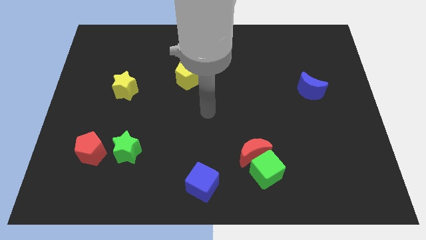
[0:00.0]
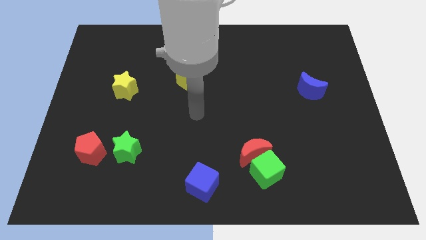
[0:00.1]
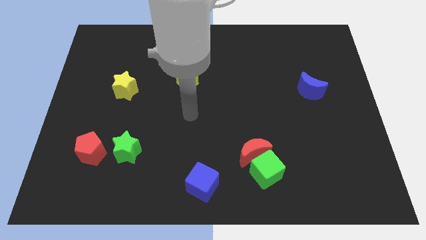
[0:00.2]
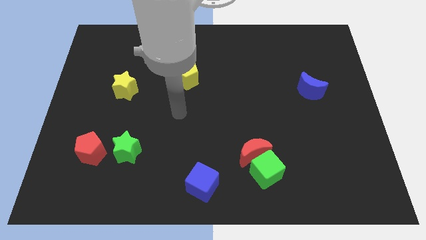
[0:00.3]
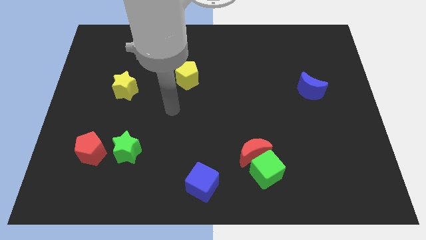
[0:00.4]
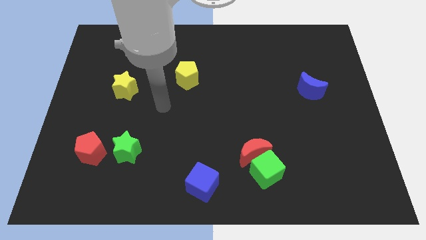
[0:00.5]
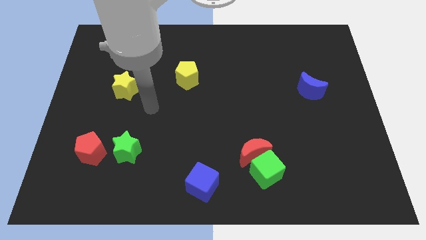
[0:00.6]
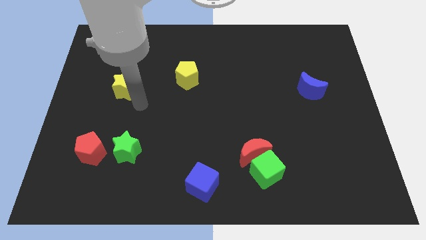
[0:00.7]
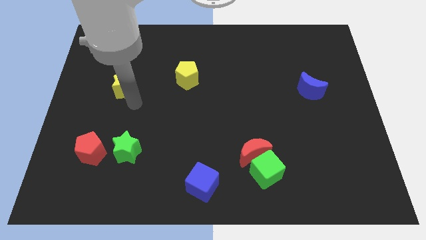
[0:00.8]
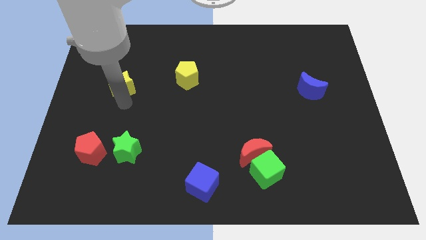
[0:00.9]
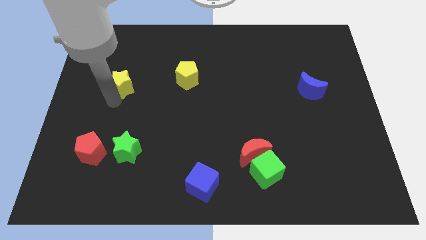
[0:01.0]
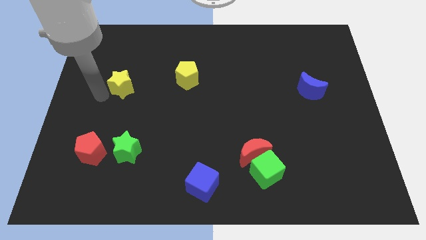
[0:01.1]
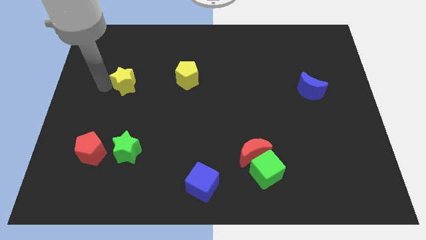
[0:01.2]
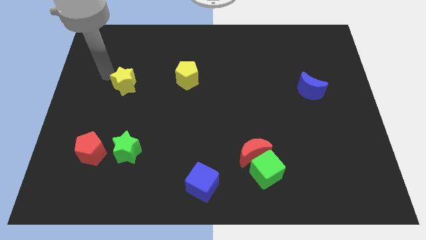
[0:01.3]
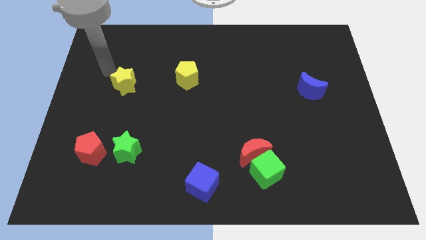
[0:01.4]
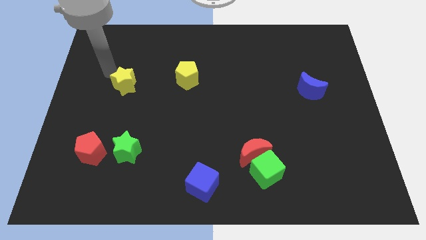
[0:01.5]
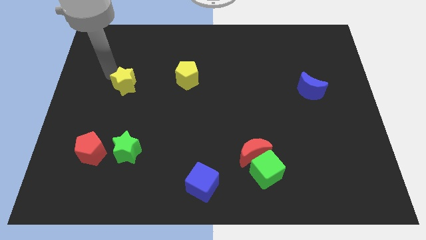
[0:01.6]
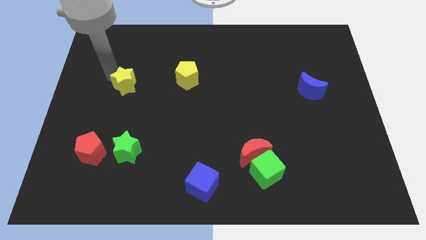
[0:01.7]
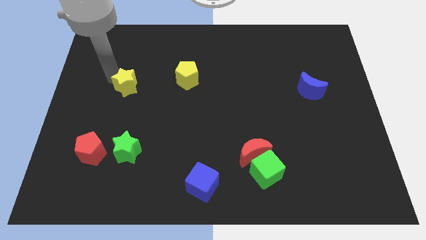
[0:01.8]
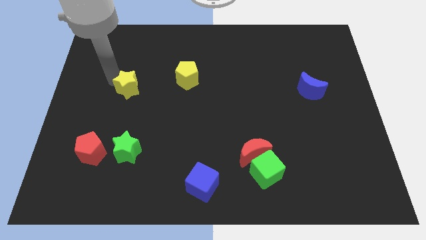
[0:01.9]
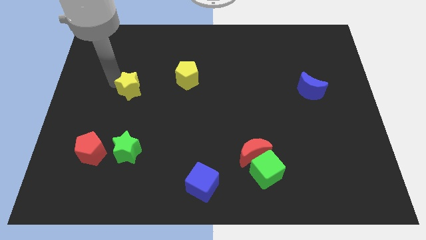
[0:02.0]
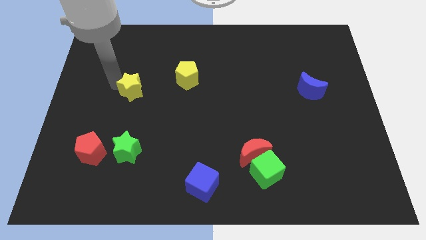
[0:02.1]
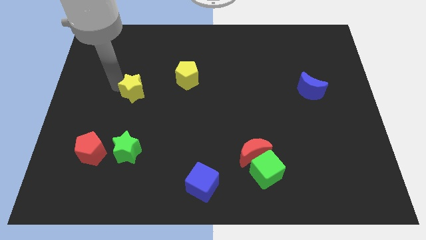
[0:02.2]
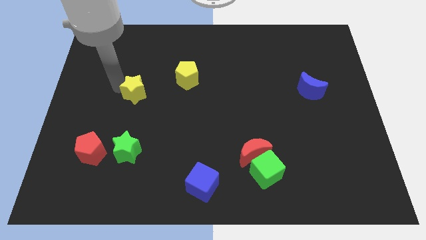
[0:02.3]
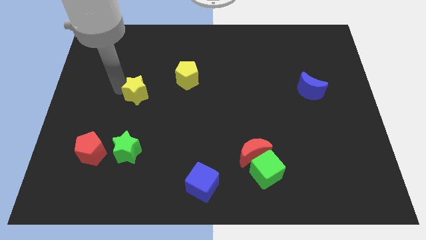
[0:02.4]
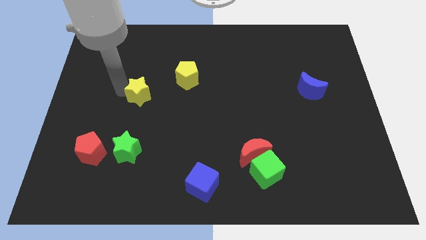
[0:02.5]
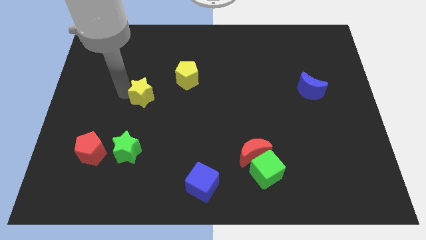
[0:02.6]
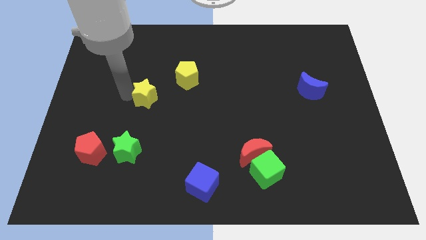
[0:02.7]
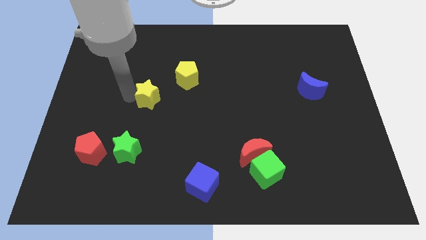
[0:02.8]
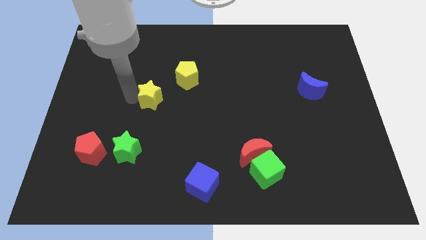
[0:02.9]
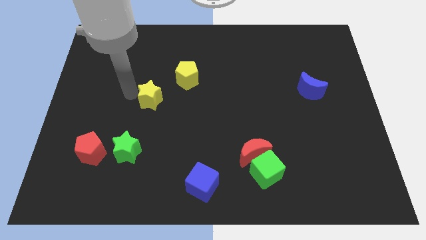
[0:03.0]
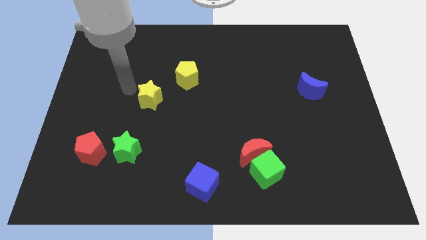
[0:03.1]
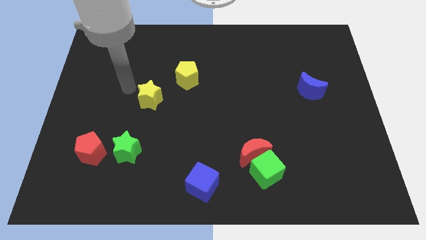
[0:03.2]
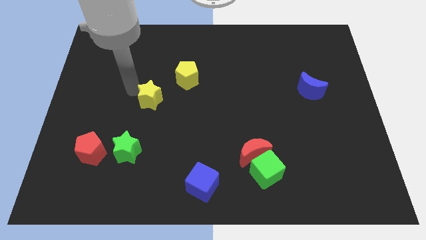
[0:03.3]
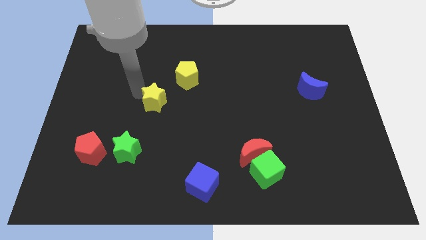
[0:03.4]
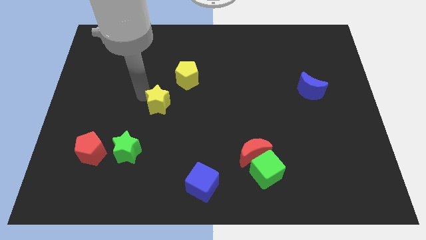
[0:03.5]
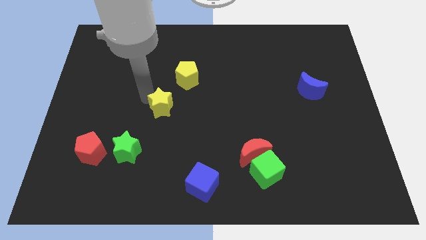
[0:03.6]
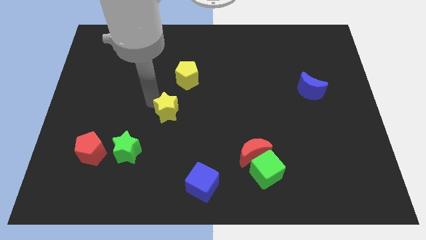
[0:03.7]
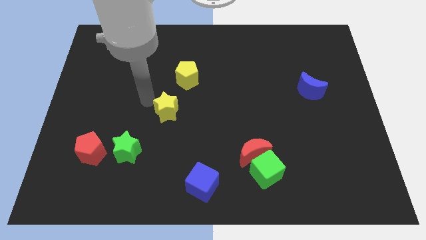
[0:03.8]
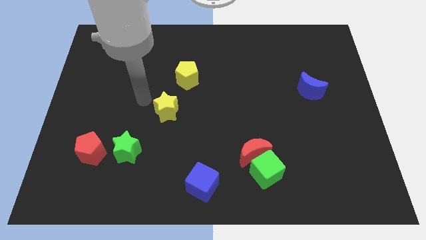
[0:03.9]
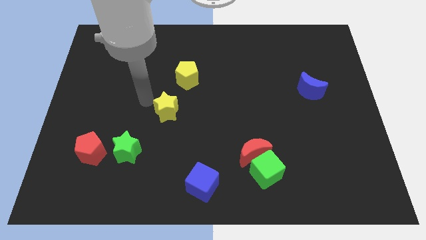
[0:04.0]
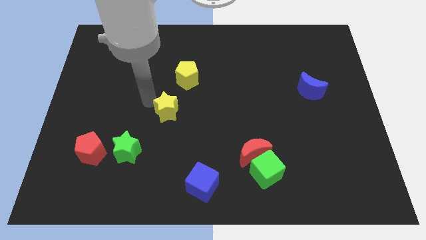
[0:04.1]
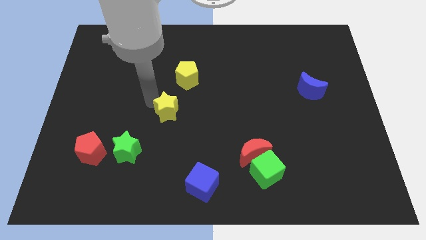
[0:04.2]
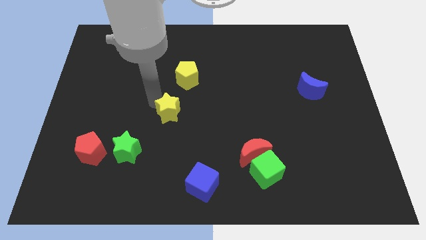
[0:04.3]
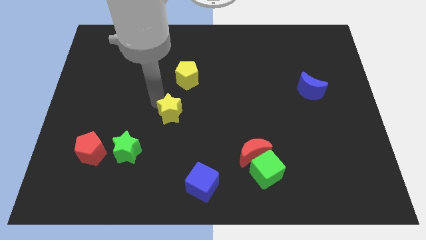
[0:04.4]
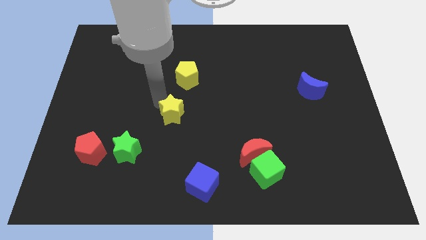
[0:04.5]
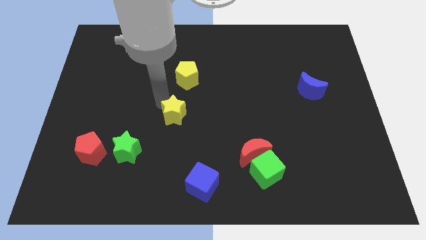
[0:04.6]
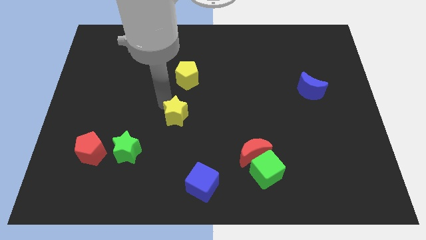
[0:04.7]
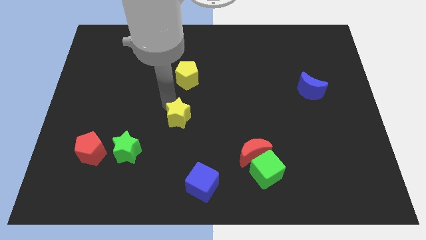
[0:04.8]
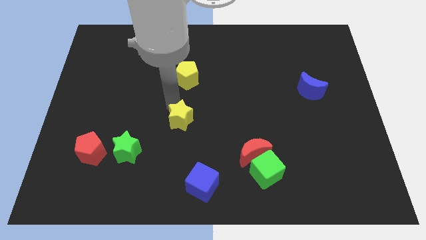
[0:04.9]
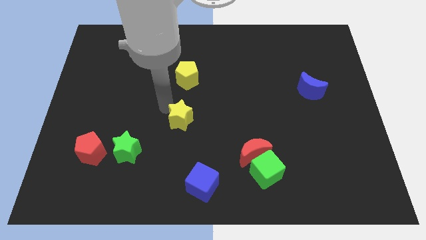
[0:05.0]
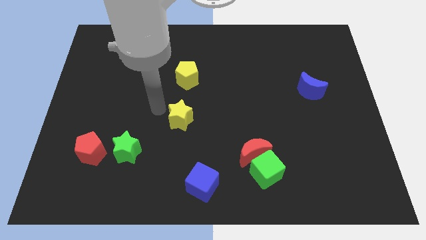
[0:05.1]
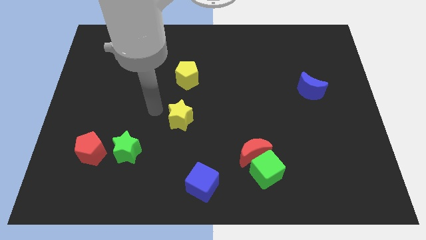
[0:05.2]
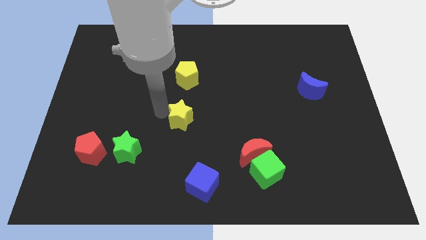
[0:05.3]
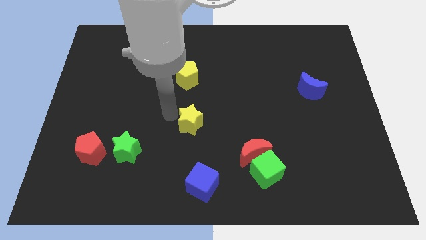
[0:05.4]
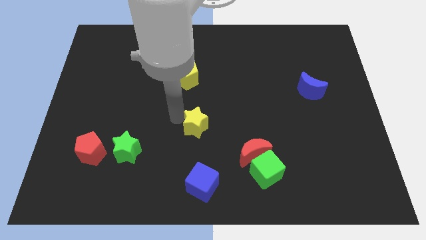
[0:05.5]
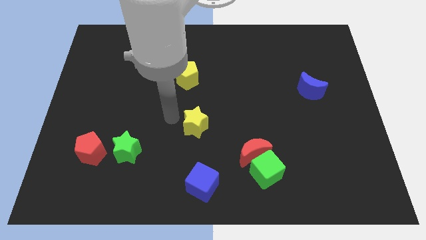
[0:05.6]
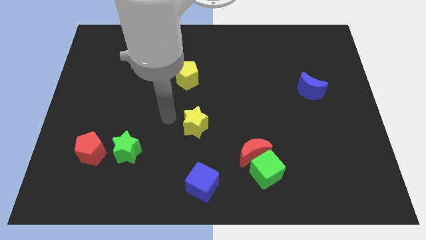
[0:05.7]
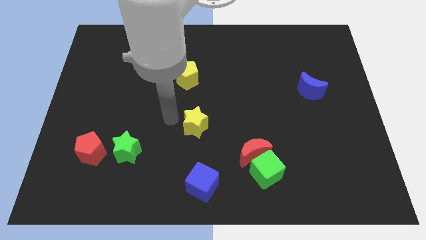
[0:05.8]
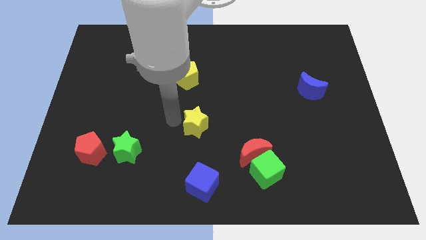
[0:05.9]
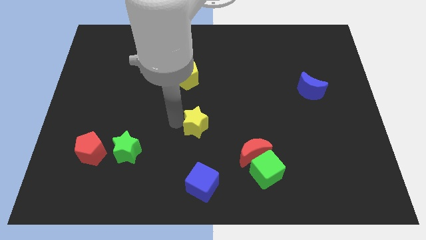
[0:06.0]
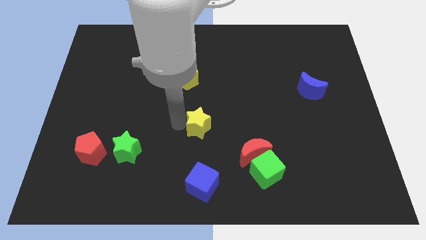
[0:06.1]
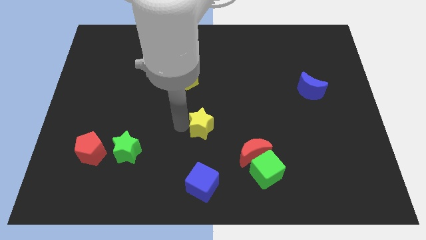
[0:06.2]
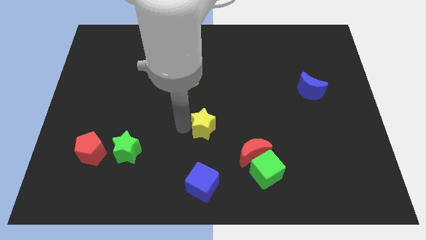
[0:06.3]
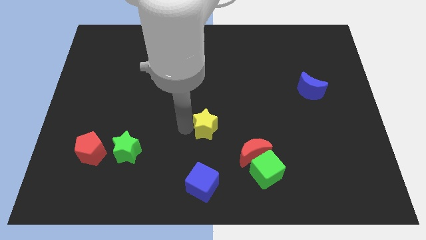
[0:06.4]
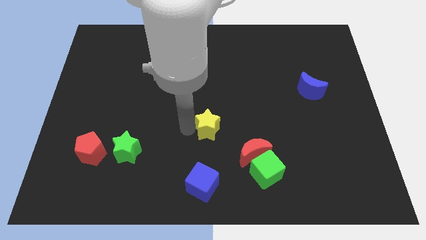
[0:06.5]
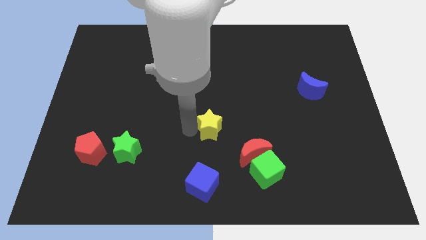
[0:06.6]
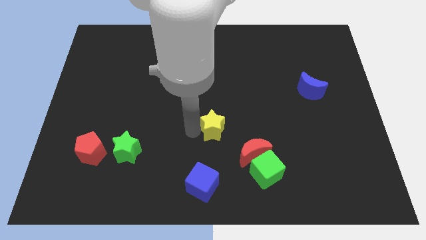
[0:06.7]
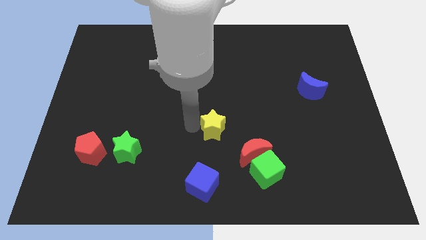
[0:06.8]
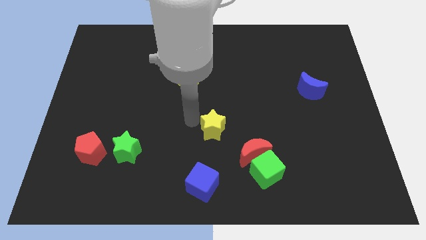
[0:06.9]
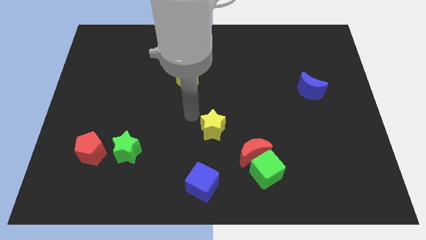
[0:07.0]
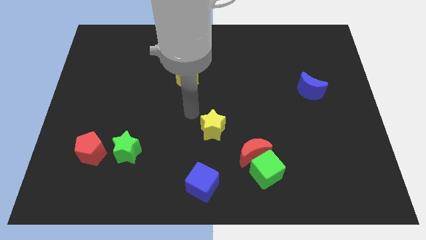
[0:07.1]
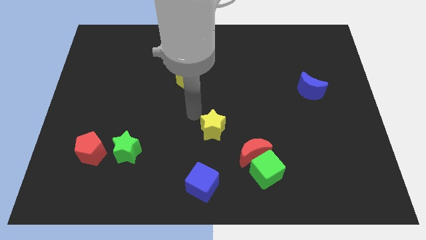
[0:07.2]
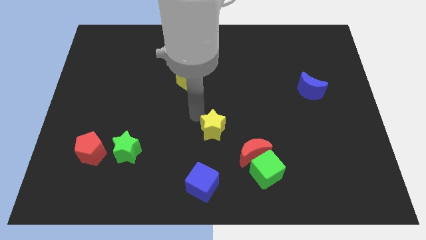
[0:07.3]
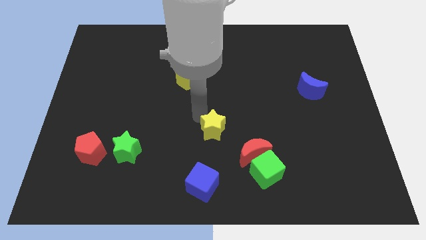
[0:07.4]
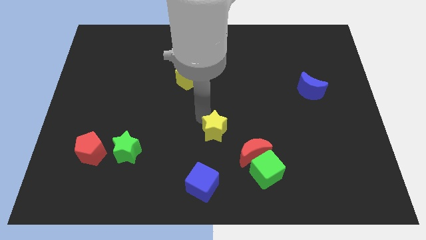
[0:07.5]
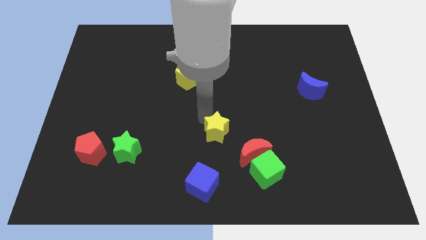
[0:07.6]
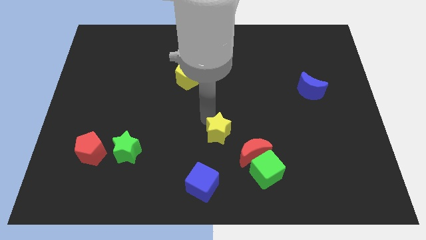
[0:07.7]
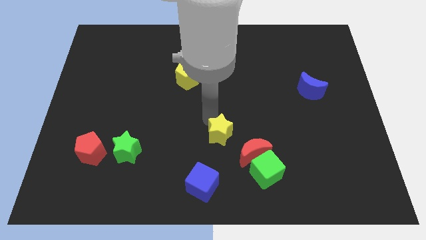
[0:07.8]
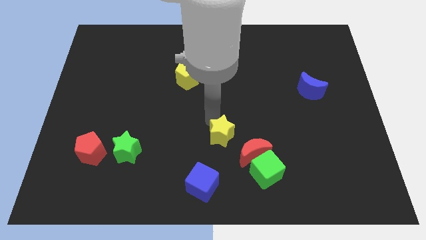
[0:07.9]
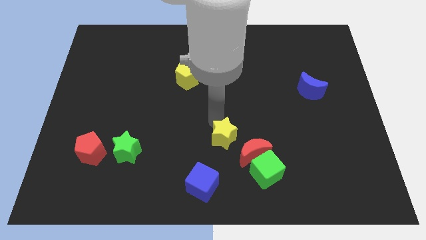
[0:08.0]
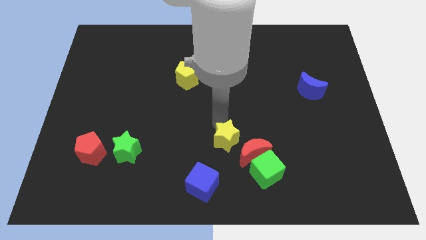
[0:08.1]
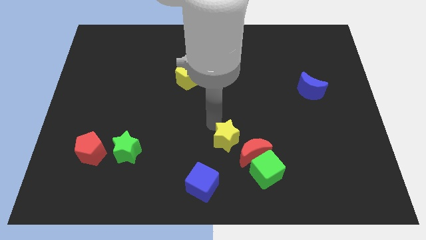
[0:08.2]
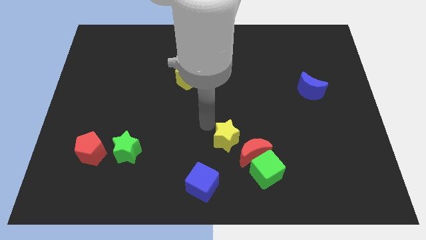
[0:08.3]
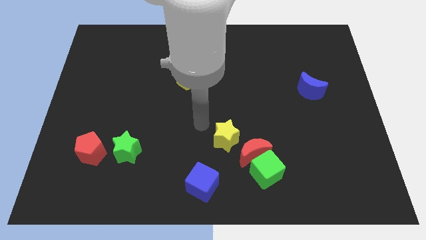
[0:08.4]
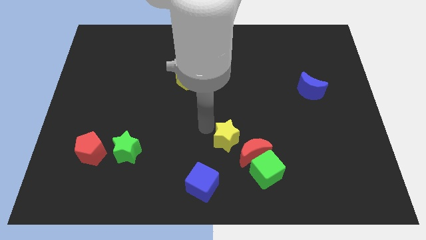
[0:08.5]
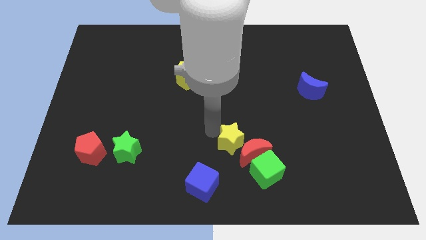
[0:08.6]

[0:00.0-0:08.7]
move the yellow star to the red moon
